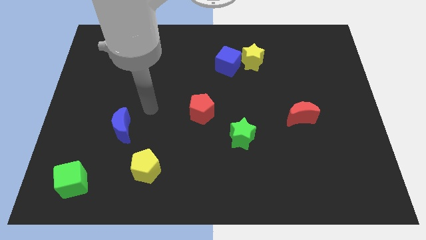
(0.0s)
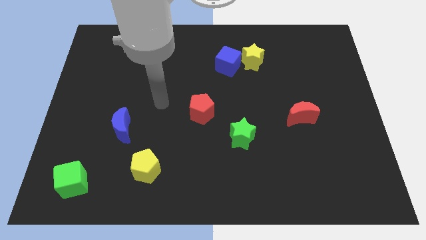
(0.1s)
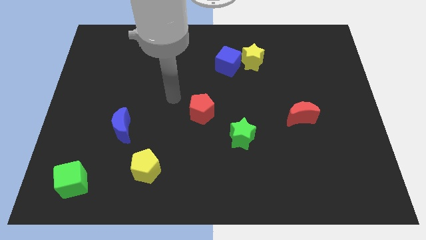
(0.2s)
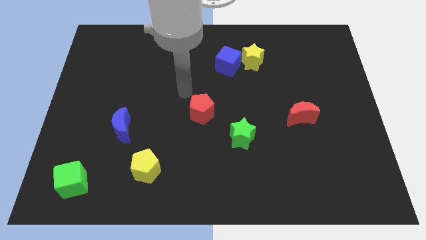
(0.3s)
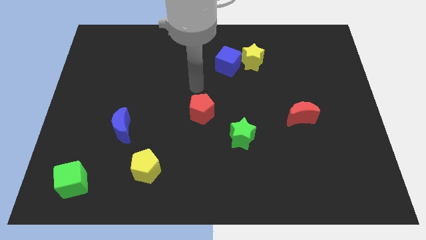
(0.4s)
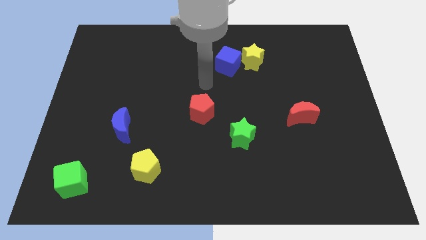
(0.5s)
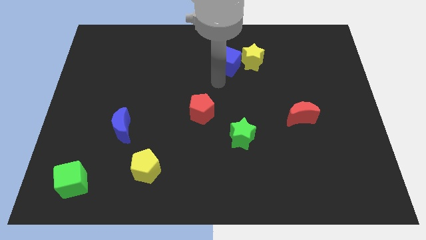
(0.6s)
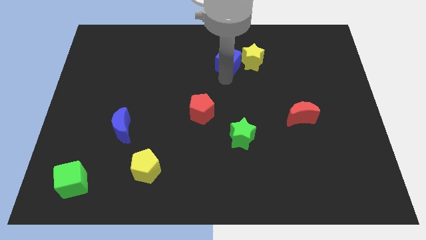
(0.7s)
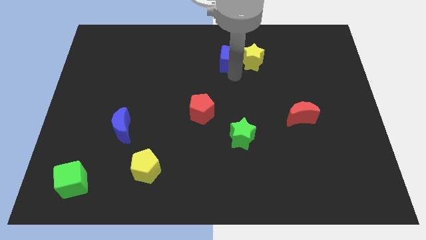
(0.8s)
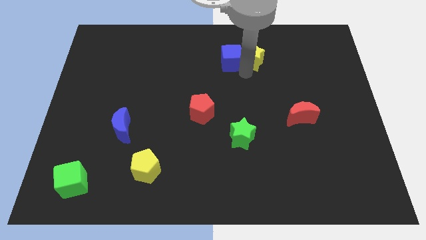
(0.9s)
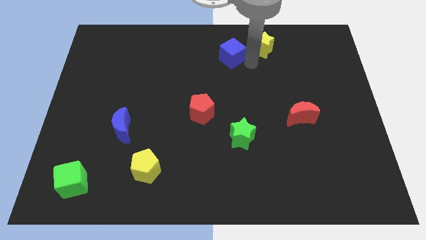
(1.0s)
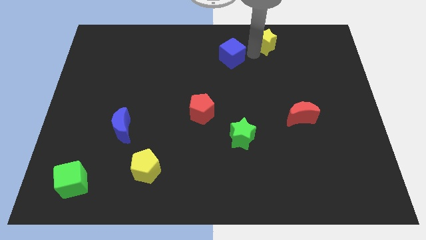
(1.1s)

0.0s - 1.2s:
separate the blue cube from the yellow star

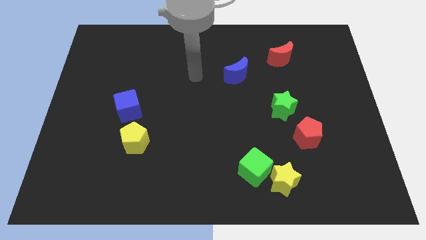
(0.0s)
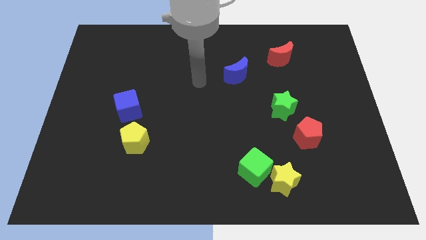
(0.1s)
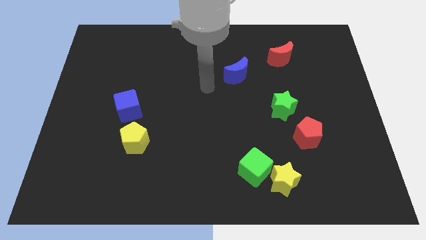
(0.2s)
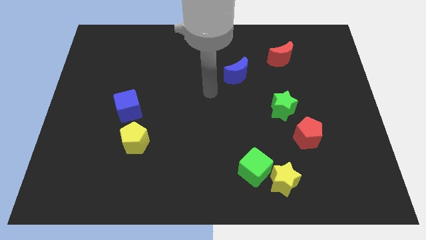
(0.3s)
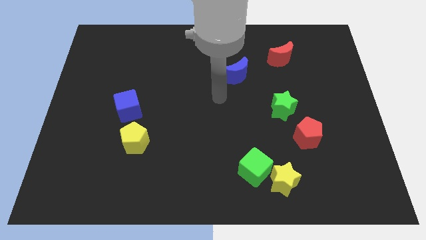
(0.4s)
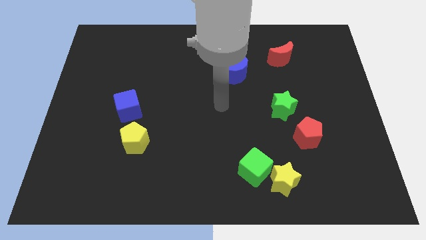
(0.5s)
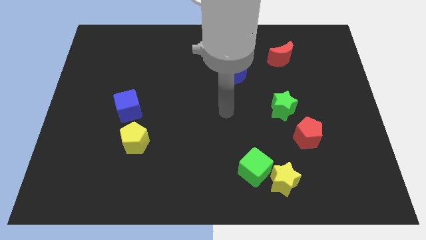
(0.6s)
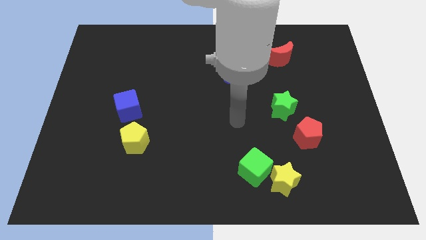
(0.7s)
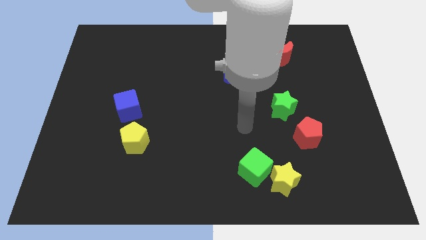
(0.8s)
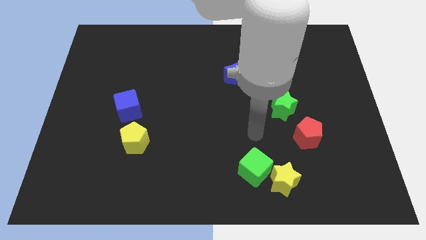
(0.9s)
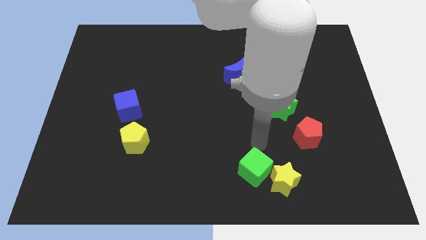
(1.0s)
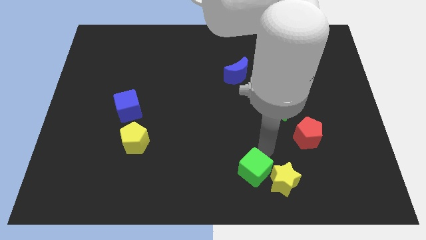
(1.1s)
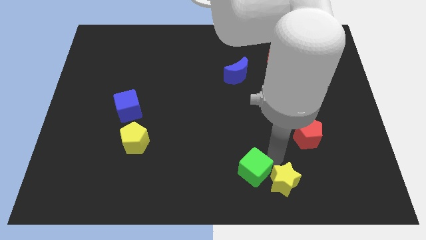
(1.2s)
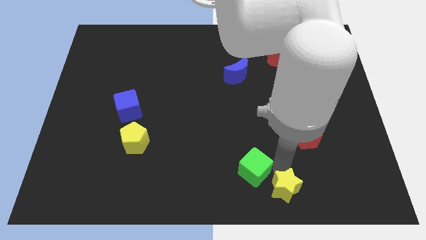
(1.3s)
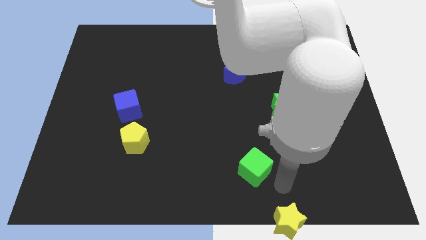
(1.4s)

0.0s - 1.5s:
pull the green cube apart from the yellow star

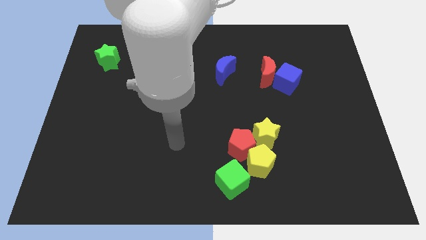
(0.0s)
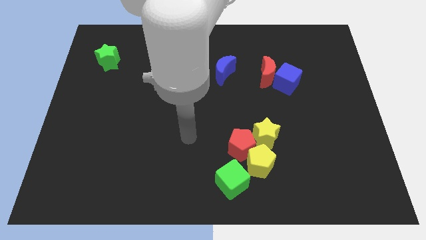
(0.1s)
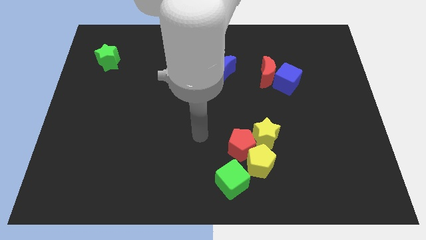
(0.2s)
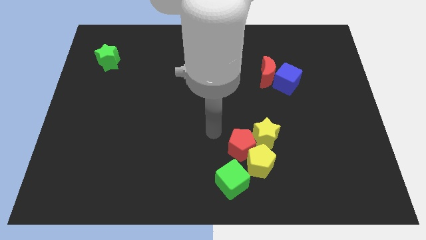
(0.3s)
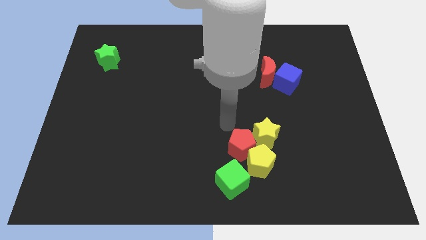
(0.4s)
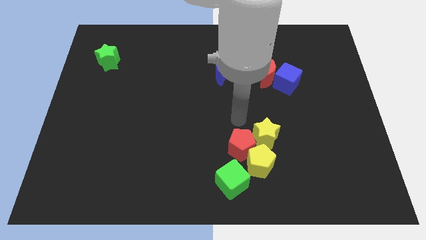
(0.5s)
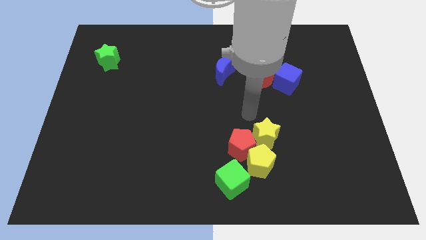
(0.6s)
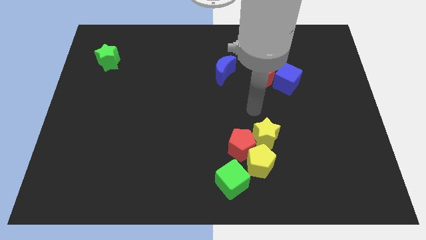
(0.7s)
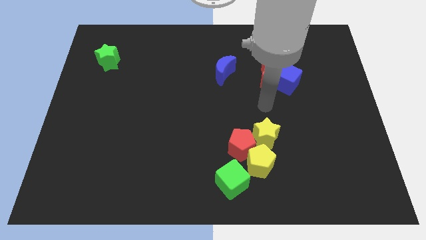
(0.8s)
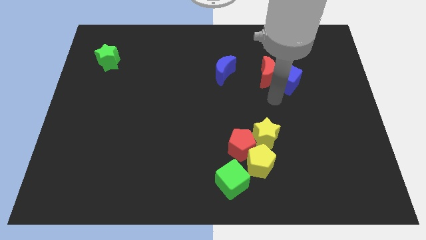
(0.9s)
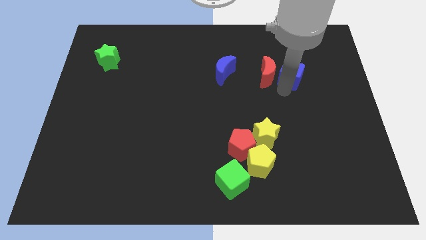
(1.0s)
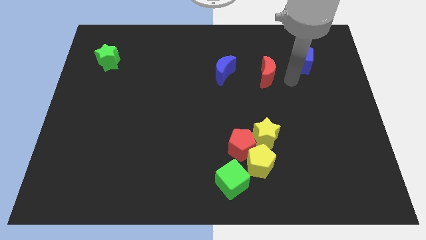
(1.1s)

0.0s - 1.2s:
move the red moon away from the blue cube

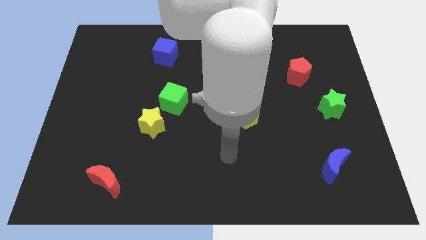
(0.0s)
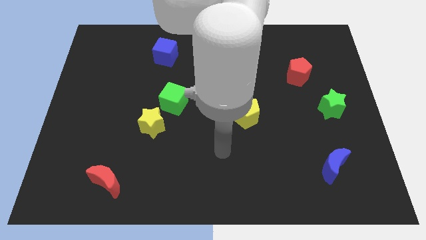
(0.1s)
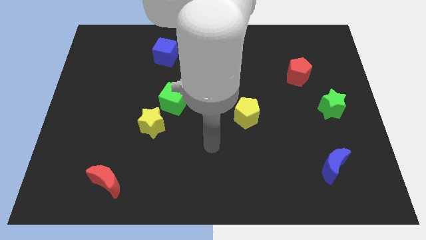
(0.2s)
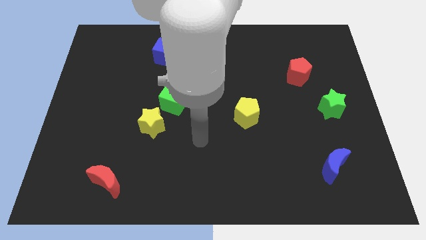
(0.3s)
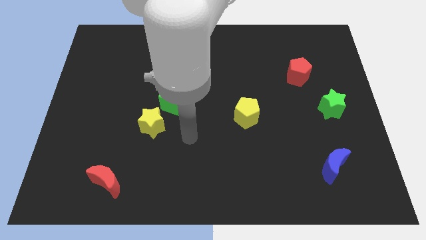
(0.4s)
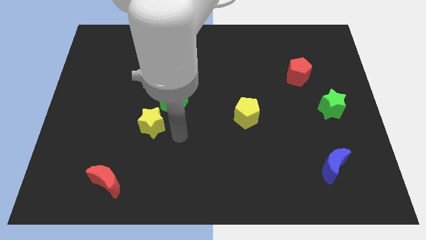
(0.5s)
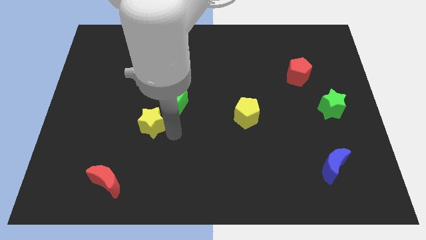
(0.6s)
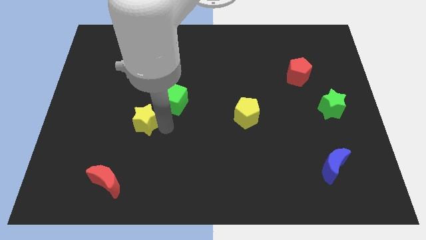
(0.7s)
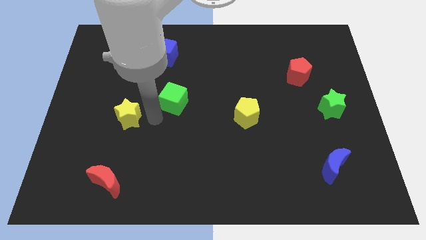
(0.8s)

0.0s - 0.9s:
separate the green cube from the yellow star

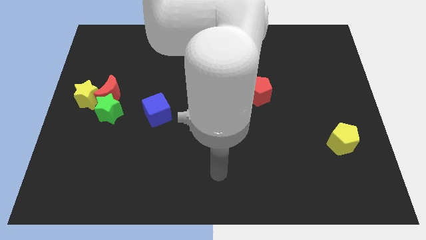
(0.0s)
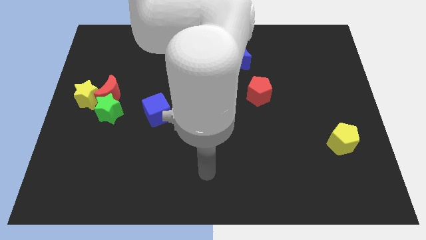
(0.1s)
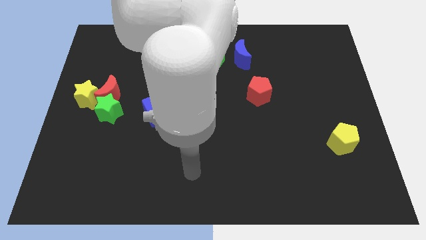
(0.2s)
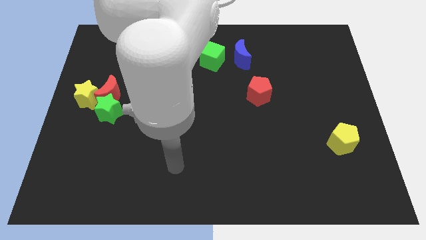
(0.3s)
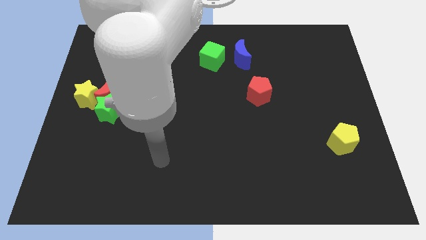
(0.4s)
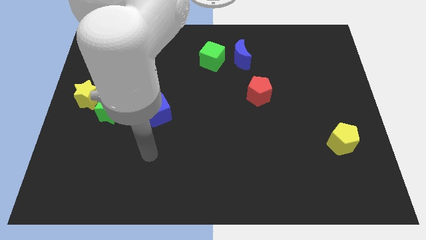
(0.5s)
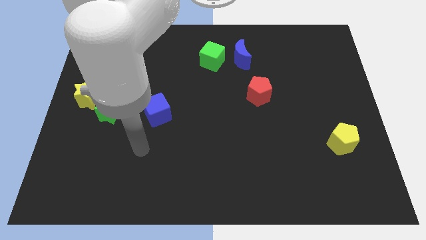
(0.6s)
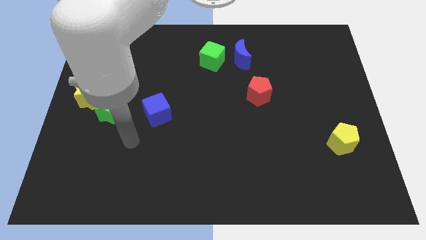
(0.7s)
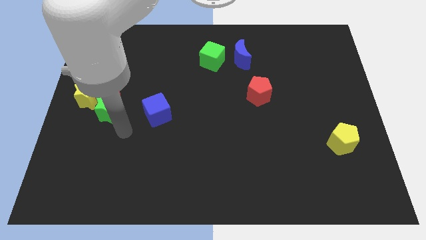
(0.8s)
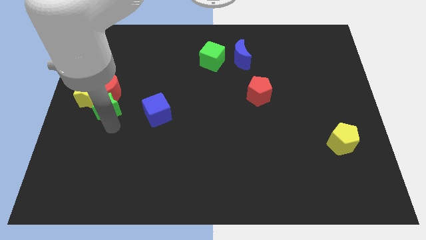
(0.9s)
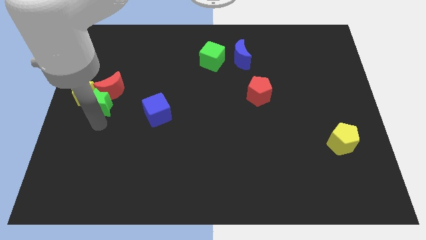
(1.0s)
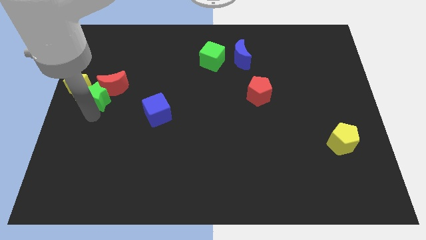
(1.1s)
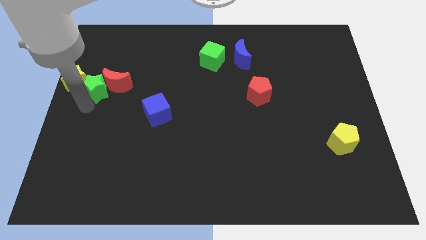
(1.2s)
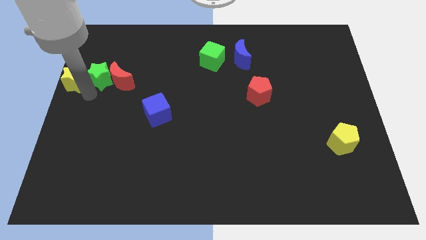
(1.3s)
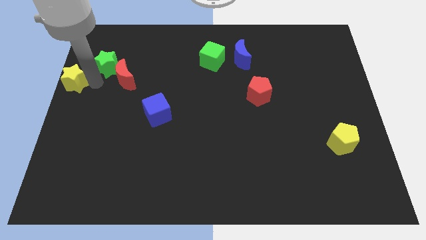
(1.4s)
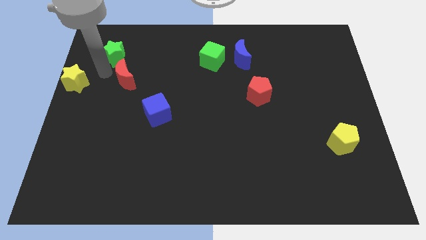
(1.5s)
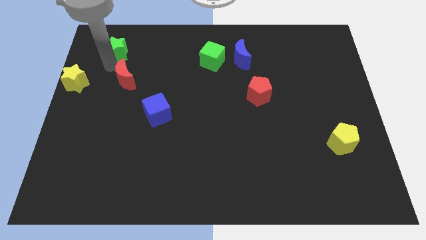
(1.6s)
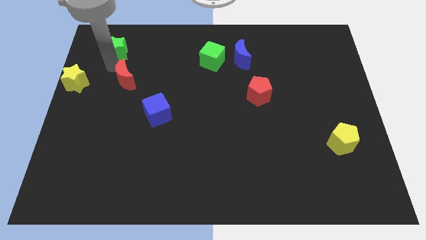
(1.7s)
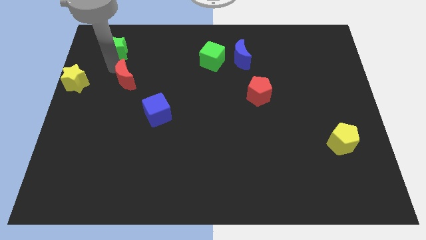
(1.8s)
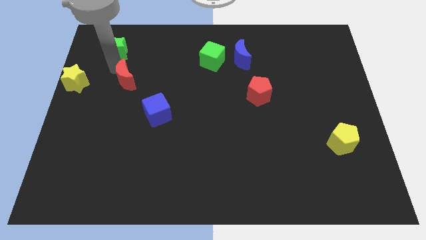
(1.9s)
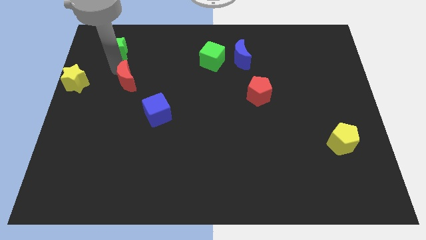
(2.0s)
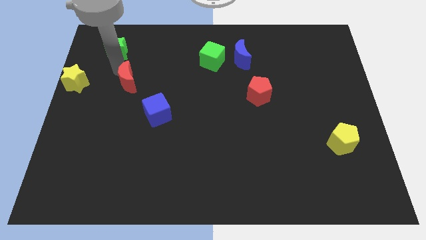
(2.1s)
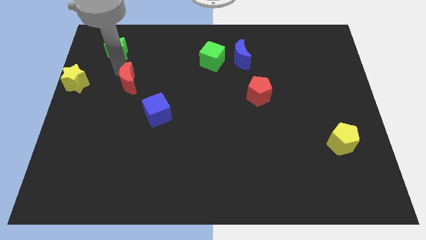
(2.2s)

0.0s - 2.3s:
move the red moon away from the green star and yellow star

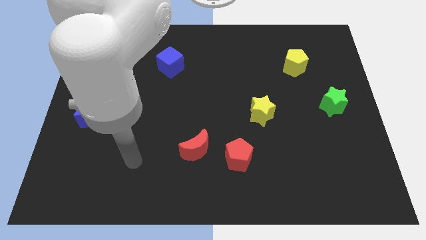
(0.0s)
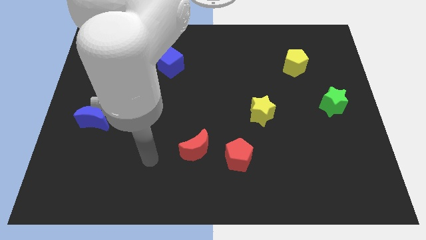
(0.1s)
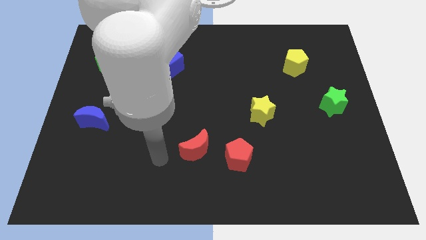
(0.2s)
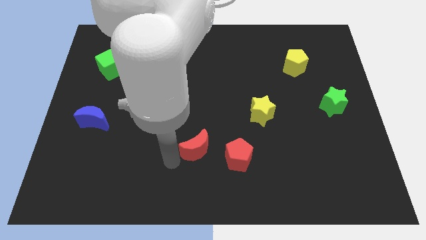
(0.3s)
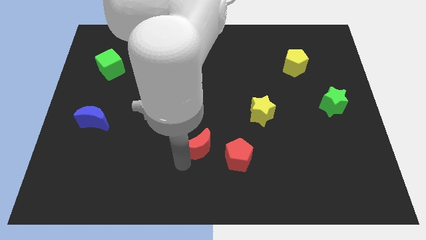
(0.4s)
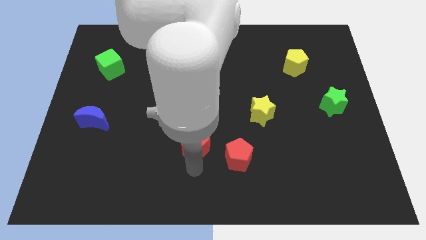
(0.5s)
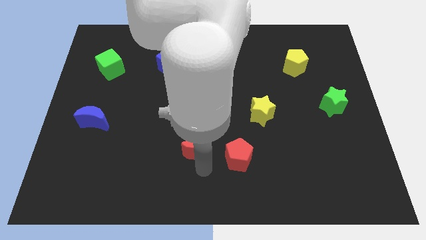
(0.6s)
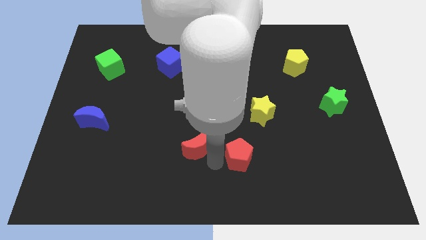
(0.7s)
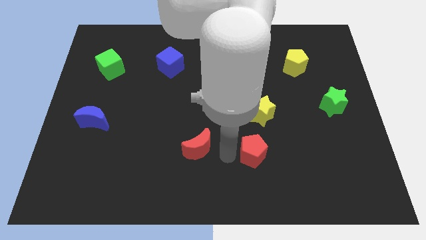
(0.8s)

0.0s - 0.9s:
pull the red moon apart from the red pentagon

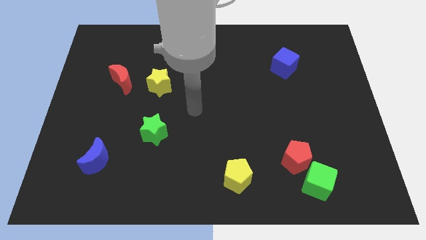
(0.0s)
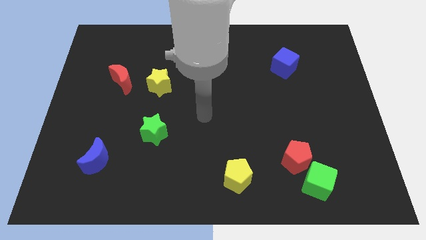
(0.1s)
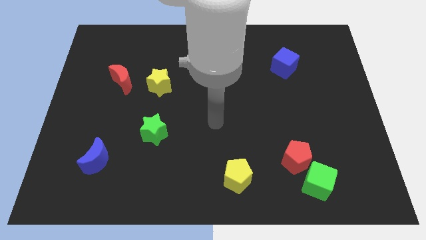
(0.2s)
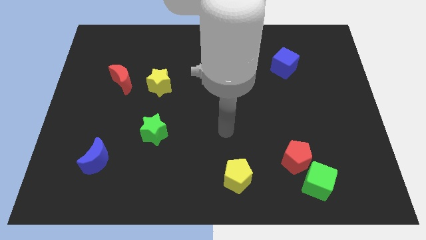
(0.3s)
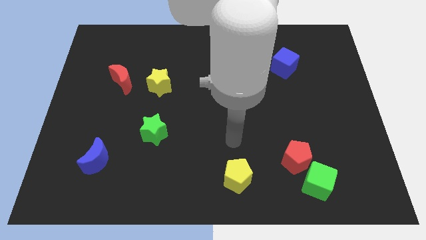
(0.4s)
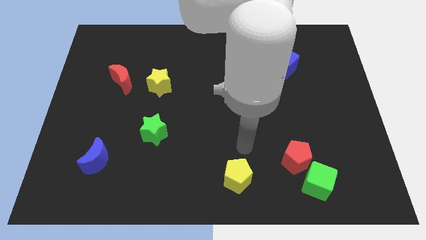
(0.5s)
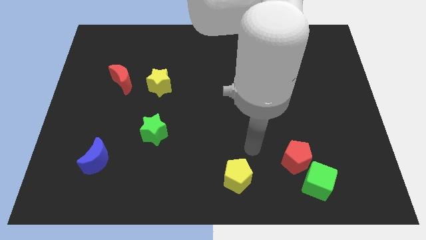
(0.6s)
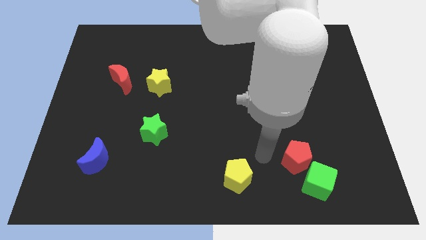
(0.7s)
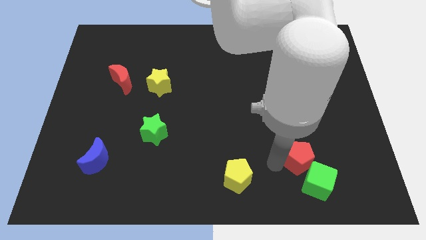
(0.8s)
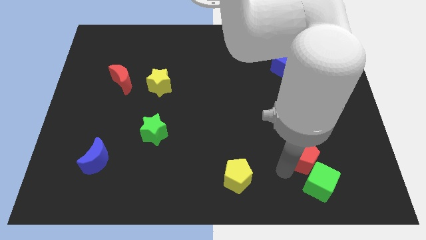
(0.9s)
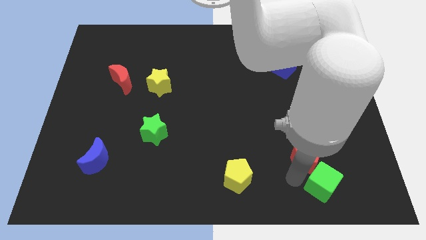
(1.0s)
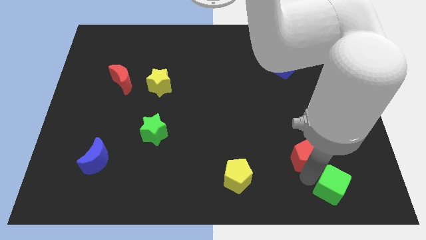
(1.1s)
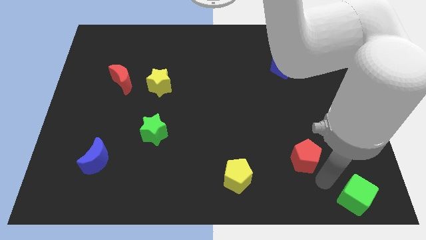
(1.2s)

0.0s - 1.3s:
move the red pentagon away from the green cube
